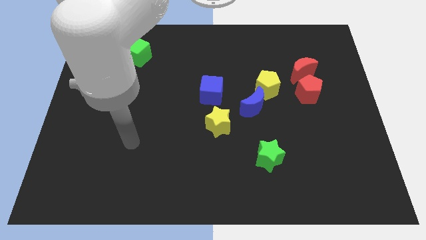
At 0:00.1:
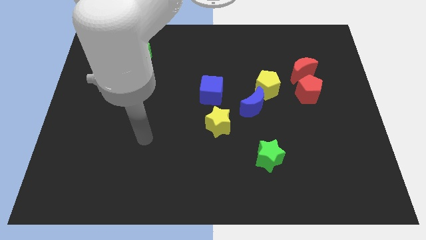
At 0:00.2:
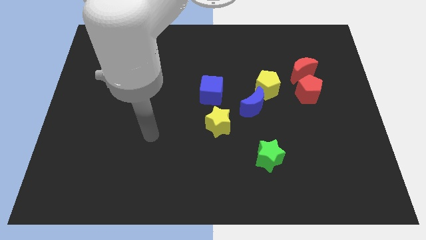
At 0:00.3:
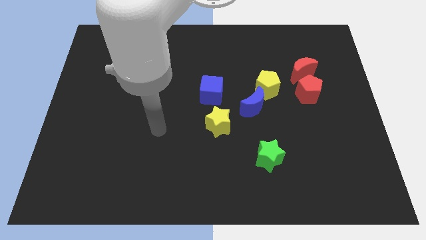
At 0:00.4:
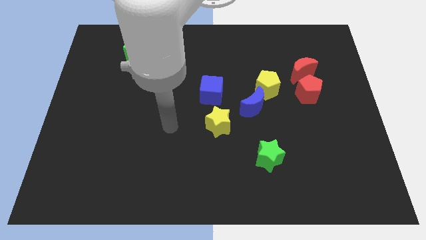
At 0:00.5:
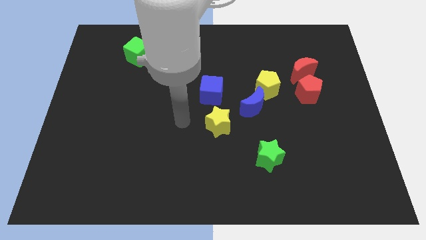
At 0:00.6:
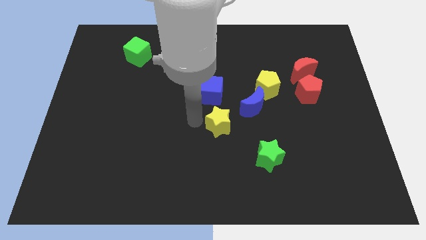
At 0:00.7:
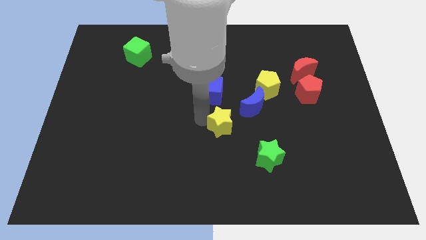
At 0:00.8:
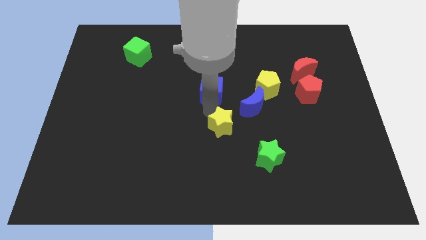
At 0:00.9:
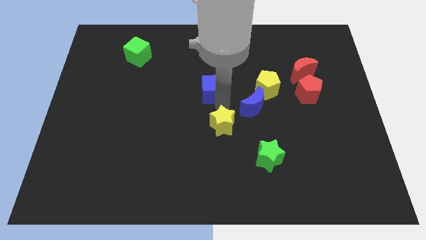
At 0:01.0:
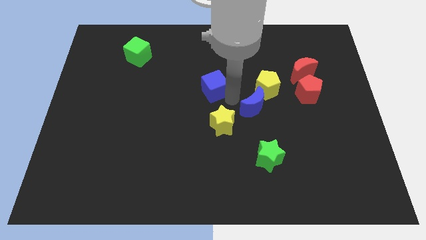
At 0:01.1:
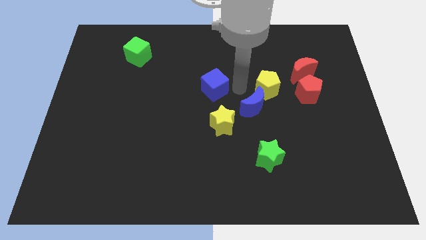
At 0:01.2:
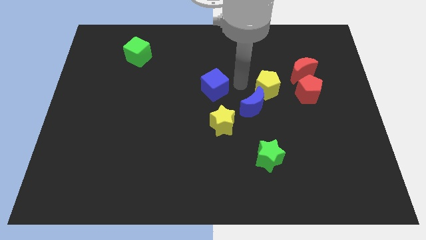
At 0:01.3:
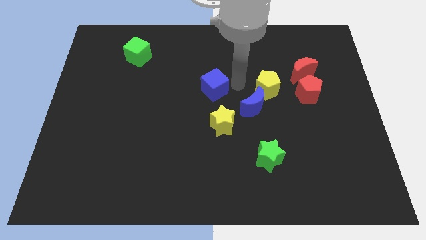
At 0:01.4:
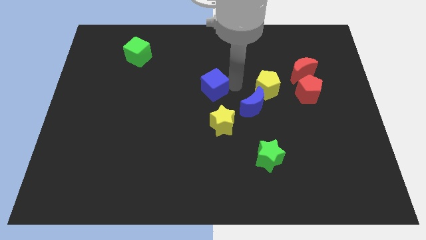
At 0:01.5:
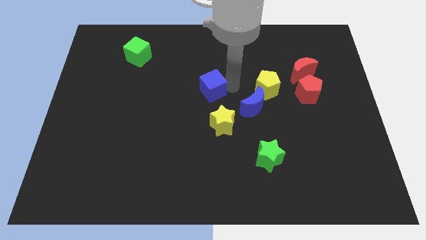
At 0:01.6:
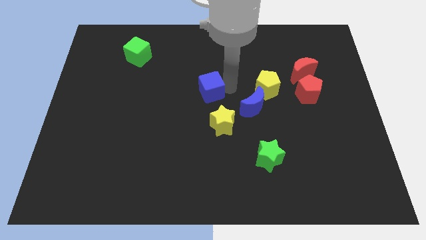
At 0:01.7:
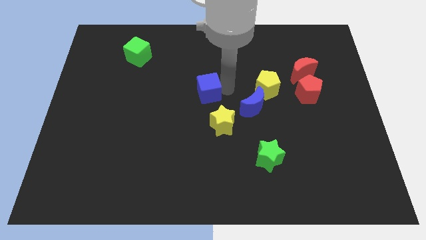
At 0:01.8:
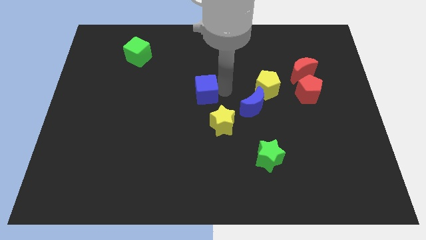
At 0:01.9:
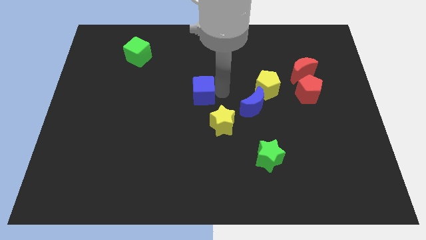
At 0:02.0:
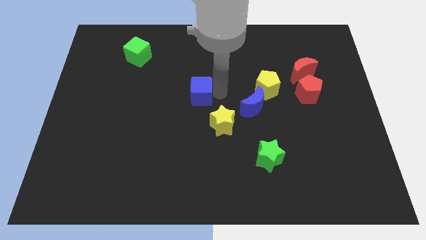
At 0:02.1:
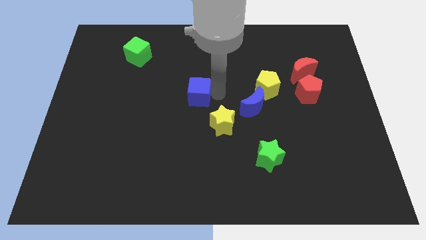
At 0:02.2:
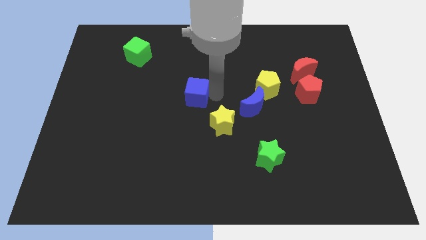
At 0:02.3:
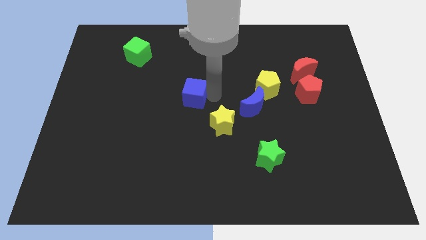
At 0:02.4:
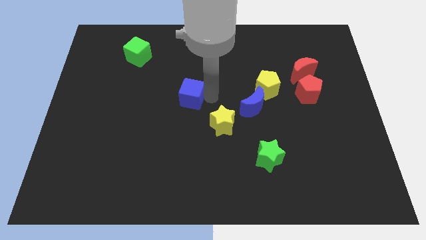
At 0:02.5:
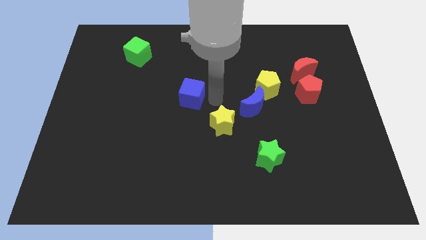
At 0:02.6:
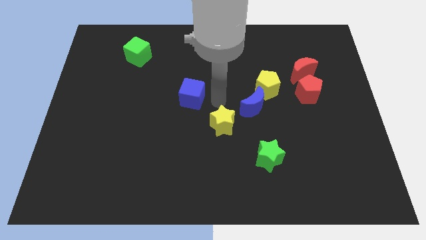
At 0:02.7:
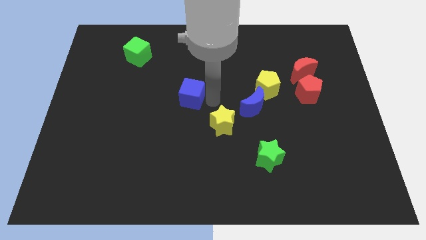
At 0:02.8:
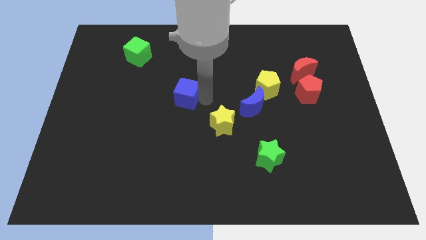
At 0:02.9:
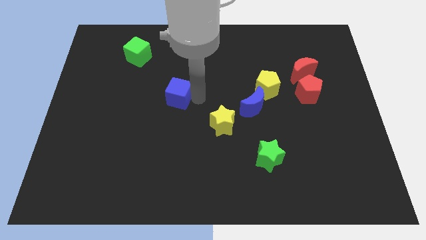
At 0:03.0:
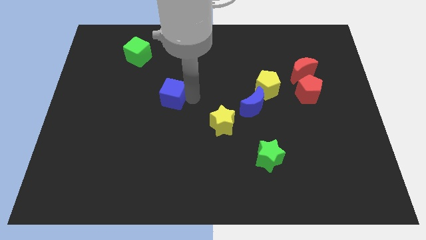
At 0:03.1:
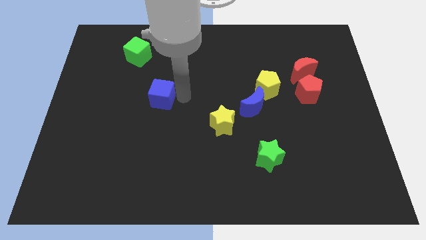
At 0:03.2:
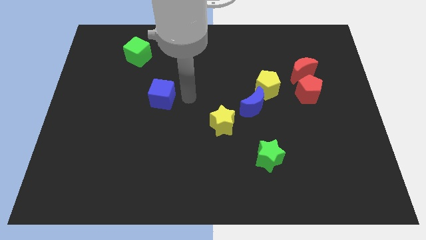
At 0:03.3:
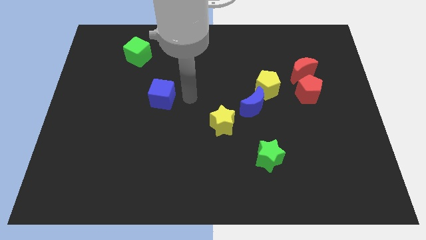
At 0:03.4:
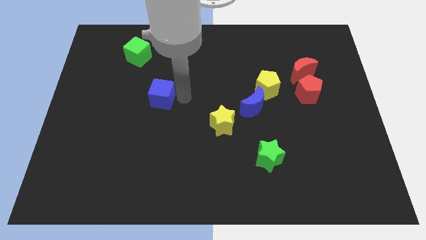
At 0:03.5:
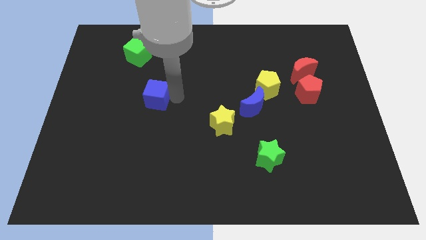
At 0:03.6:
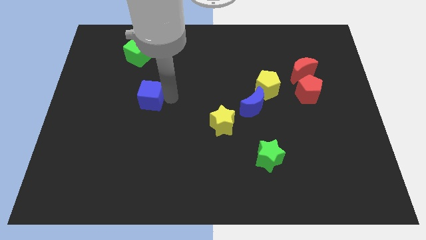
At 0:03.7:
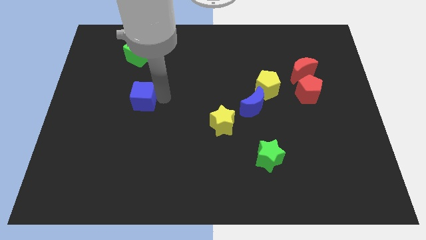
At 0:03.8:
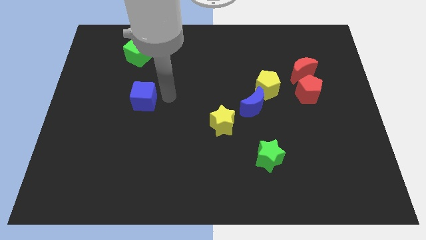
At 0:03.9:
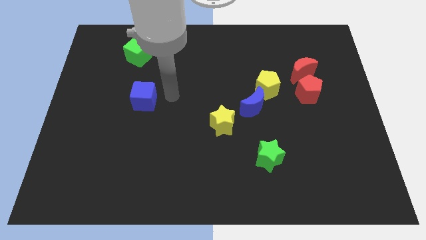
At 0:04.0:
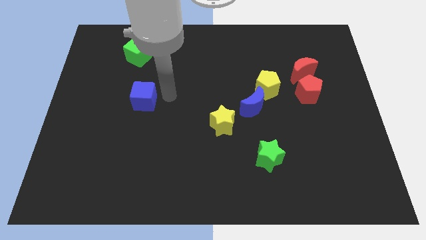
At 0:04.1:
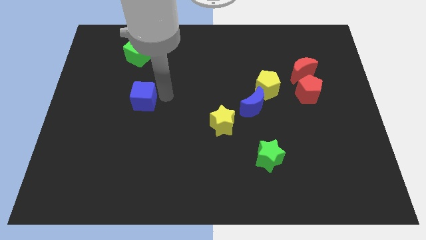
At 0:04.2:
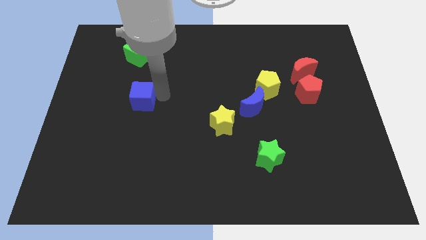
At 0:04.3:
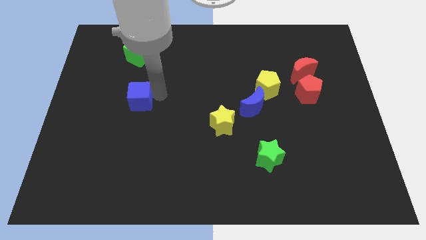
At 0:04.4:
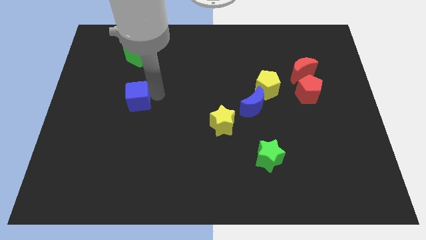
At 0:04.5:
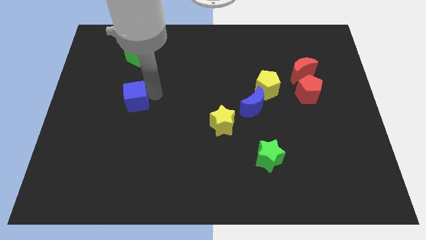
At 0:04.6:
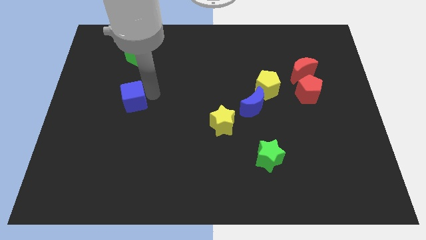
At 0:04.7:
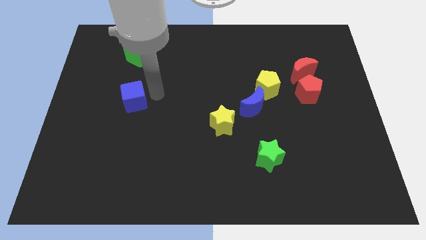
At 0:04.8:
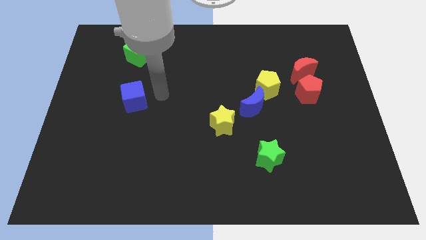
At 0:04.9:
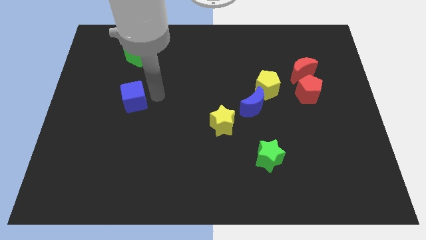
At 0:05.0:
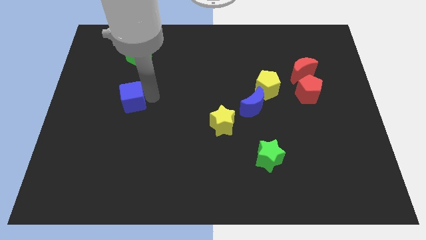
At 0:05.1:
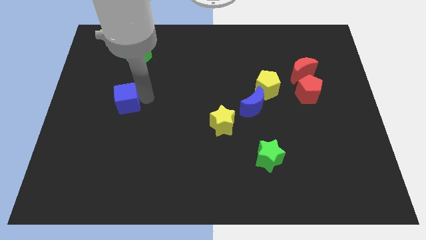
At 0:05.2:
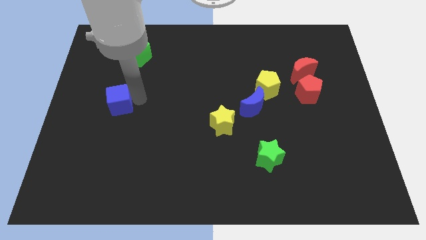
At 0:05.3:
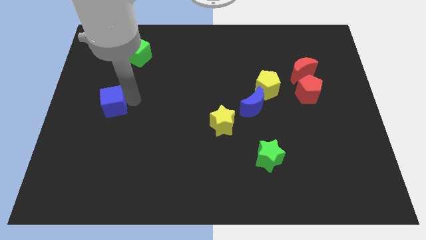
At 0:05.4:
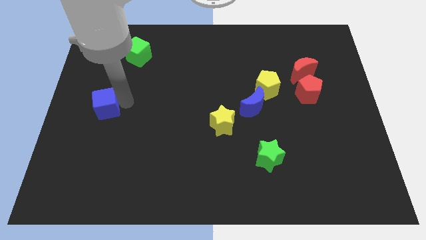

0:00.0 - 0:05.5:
slide the blue cube to the left side
